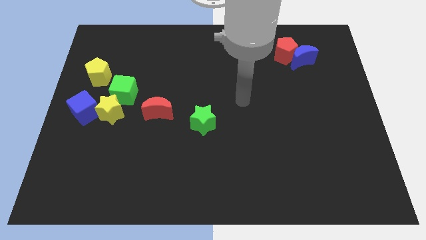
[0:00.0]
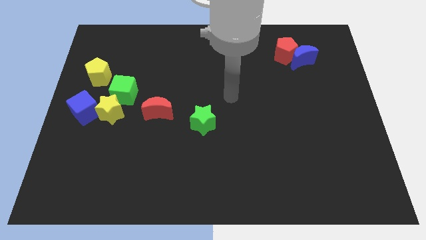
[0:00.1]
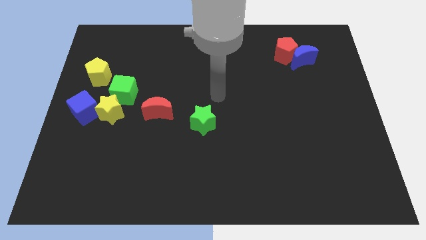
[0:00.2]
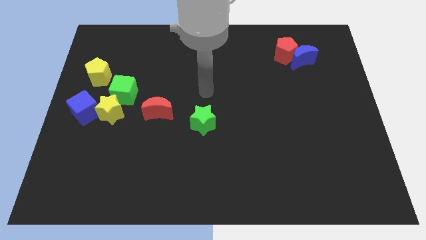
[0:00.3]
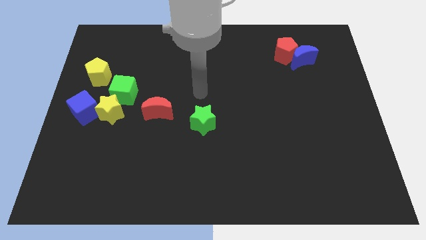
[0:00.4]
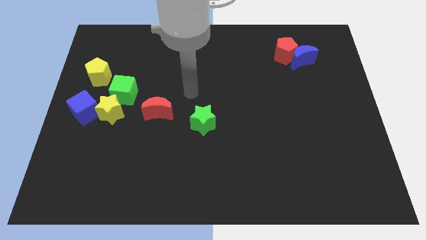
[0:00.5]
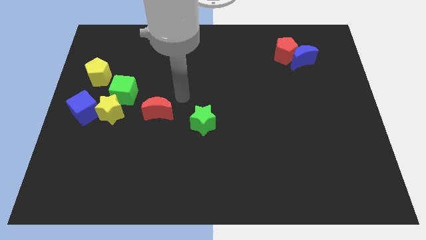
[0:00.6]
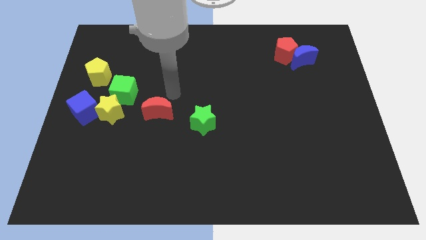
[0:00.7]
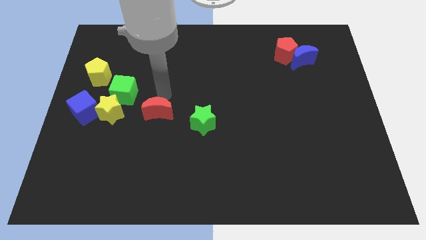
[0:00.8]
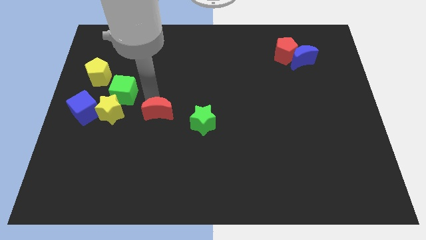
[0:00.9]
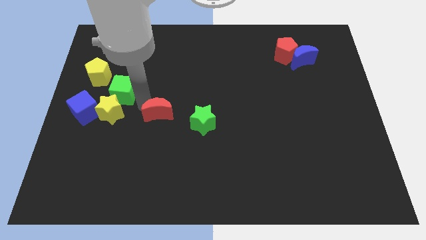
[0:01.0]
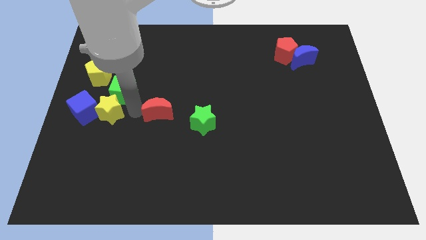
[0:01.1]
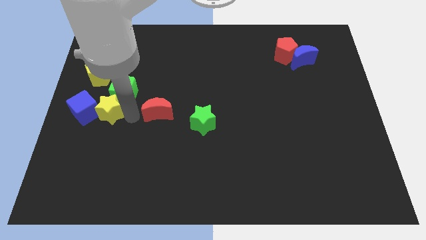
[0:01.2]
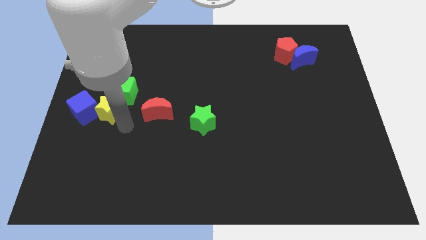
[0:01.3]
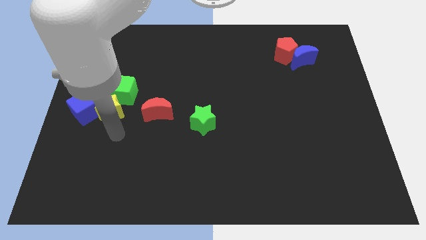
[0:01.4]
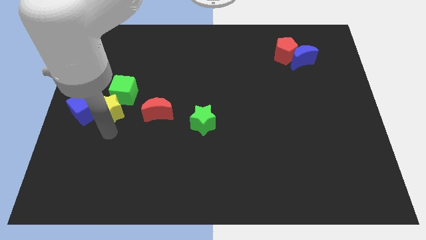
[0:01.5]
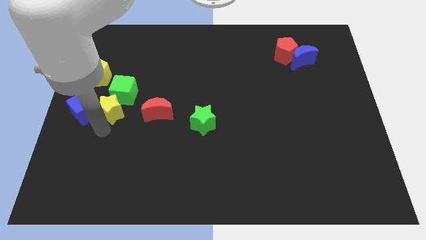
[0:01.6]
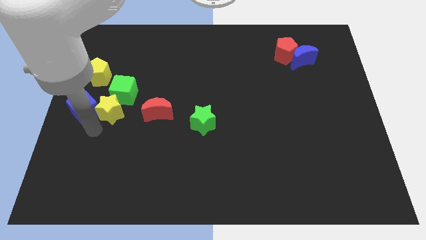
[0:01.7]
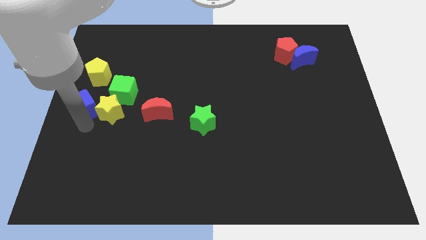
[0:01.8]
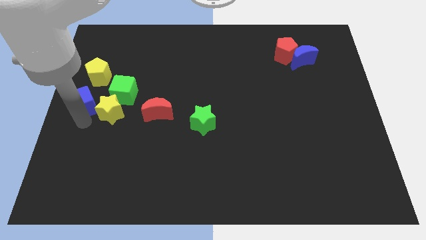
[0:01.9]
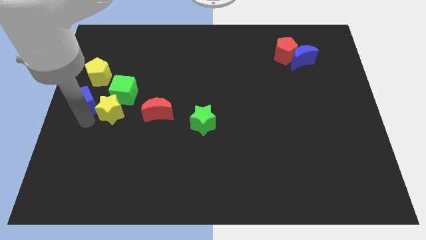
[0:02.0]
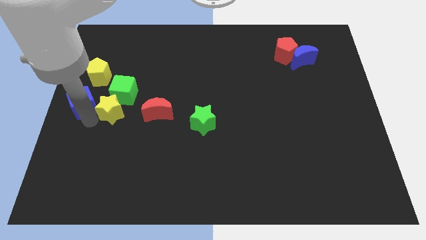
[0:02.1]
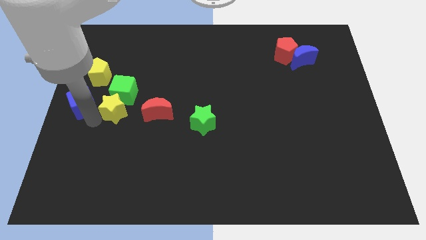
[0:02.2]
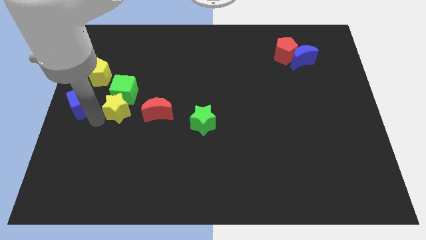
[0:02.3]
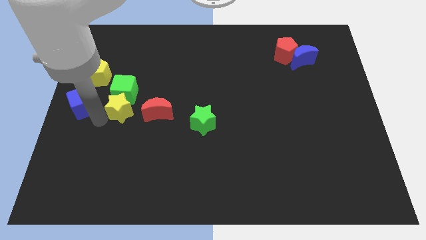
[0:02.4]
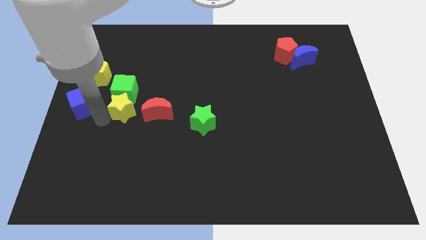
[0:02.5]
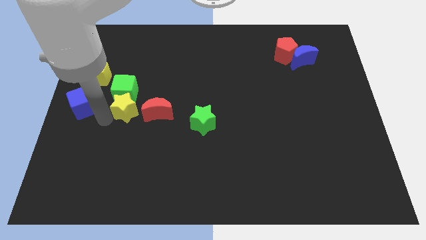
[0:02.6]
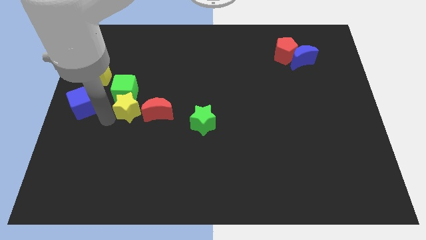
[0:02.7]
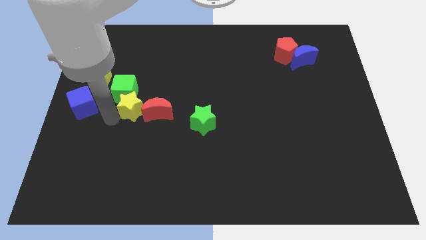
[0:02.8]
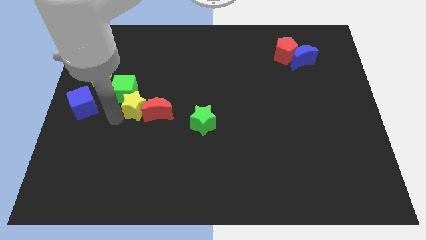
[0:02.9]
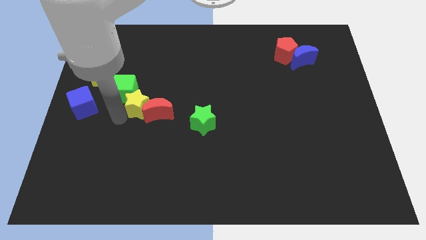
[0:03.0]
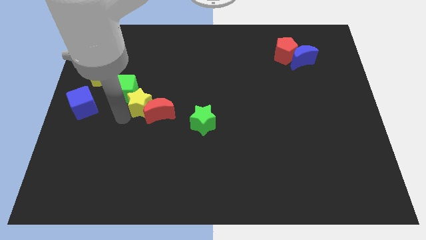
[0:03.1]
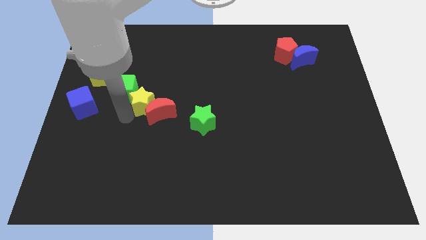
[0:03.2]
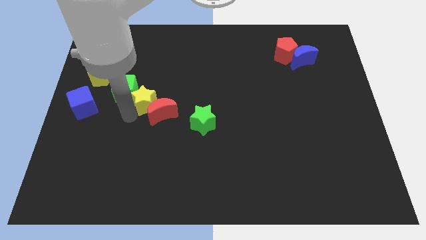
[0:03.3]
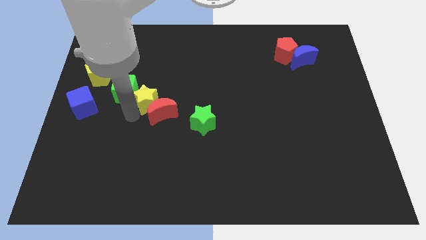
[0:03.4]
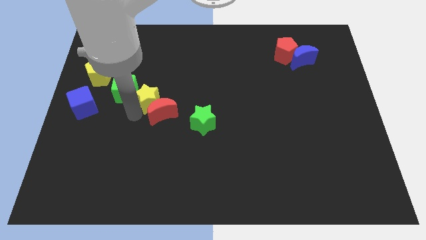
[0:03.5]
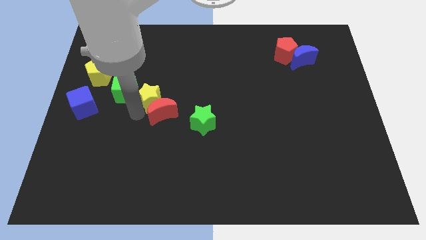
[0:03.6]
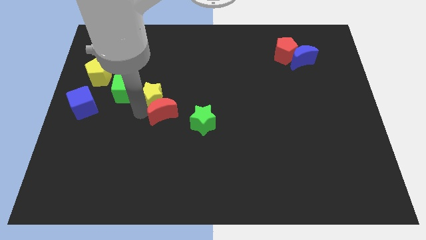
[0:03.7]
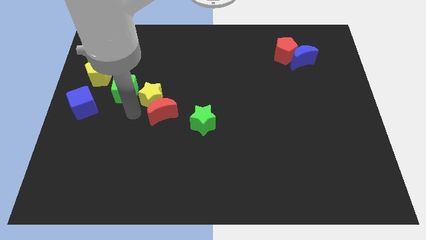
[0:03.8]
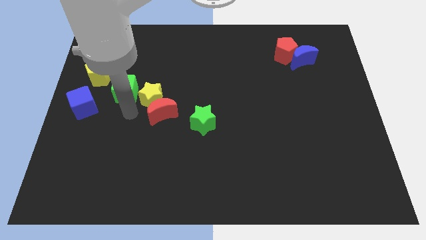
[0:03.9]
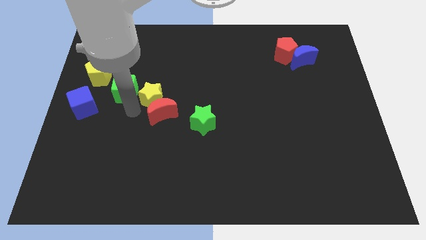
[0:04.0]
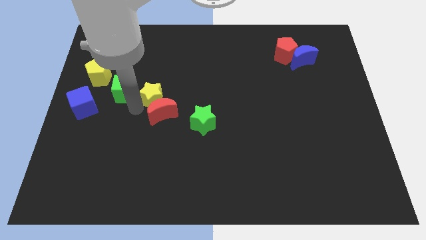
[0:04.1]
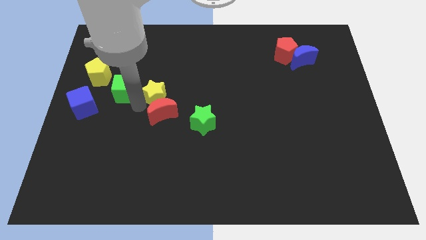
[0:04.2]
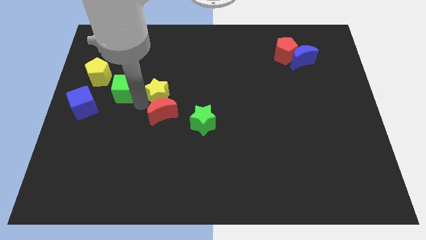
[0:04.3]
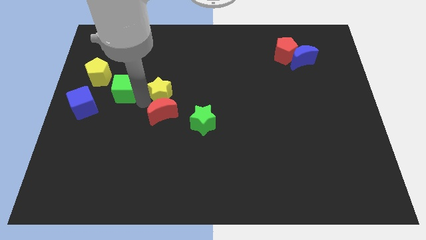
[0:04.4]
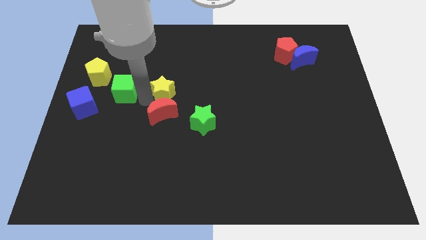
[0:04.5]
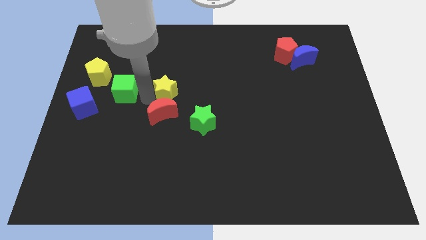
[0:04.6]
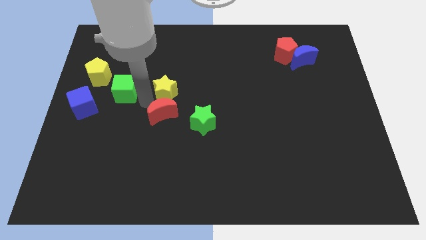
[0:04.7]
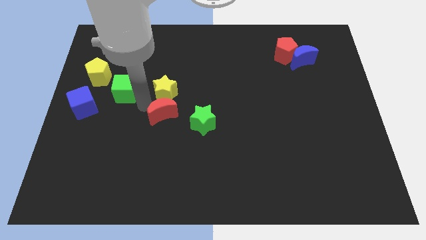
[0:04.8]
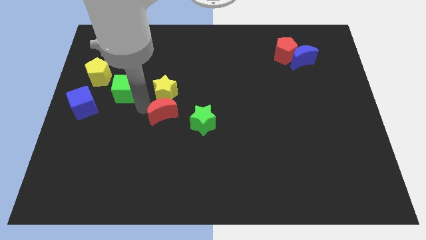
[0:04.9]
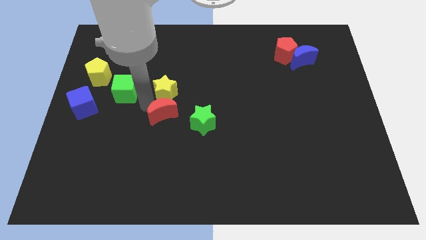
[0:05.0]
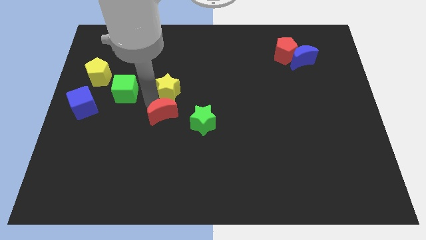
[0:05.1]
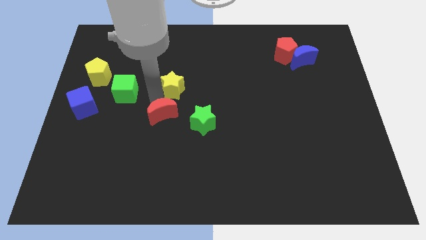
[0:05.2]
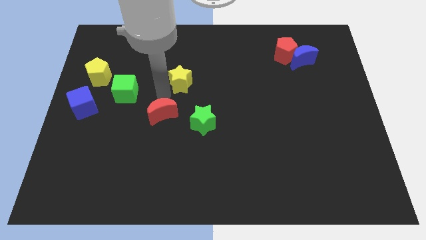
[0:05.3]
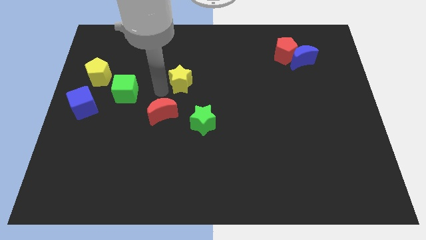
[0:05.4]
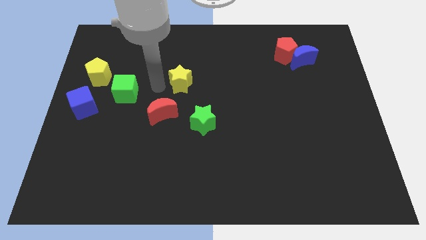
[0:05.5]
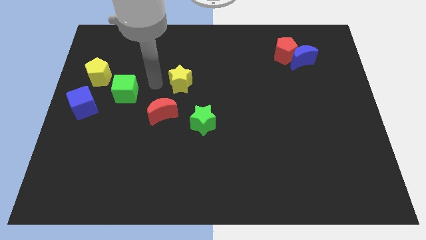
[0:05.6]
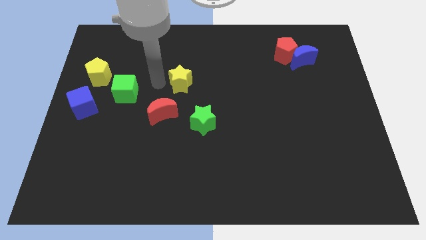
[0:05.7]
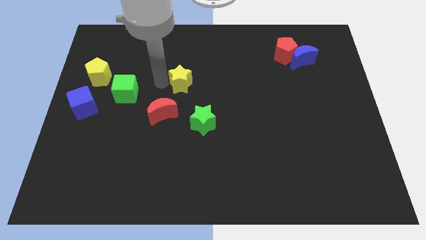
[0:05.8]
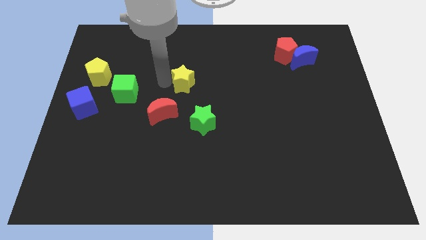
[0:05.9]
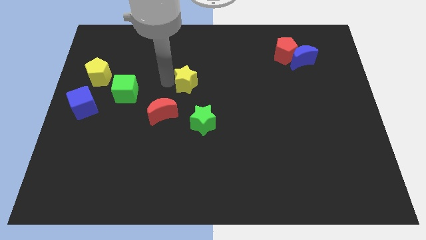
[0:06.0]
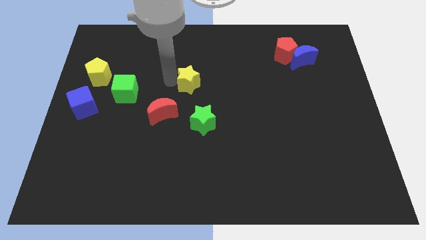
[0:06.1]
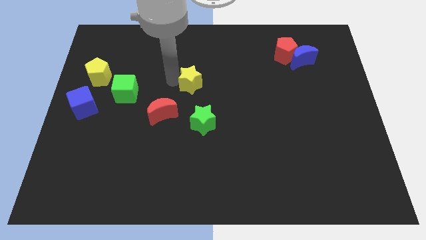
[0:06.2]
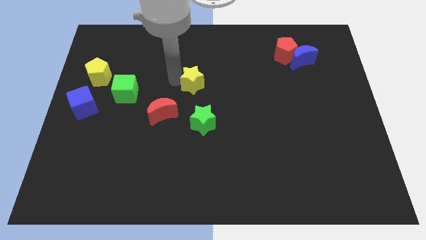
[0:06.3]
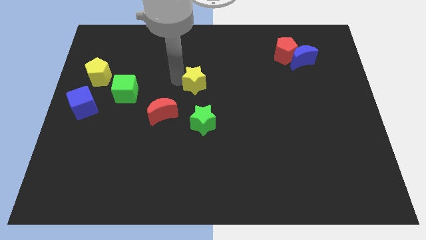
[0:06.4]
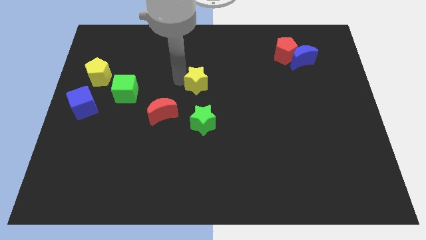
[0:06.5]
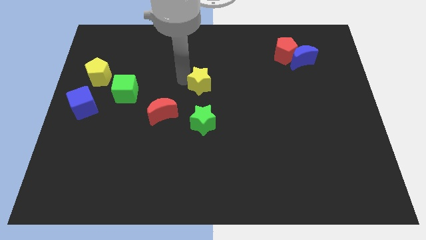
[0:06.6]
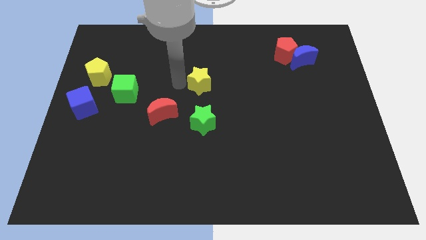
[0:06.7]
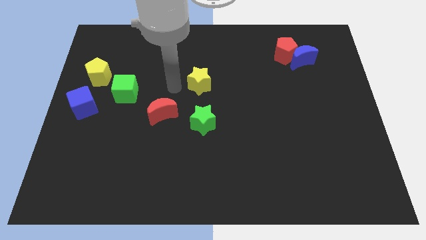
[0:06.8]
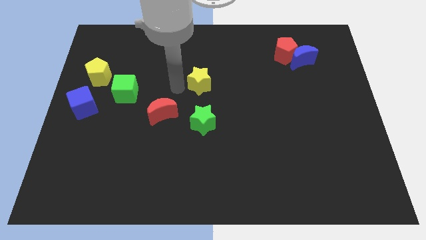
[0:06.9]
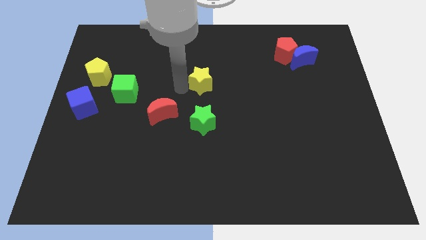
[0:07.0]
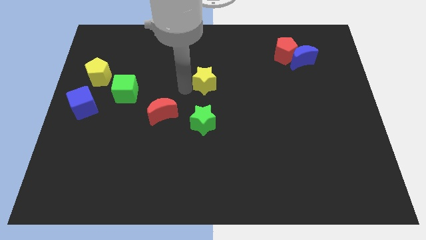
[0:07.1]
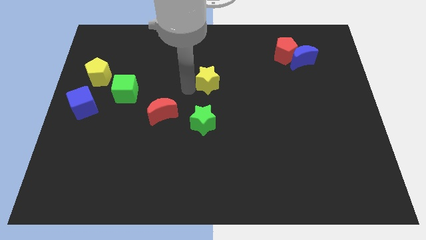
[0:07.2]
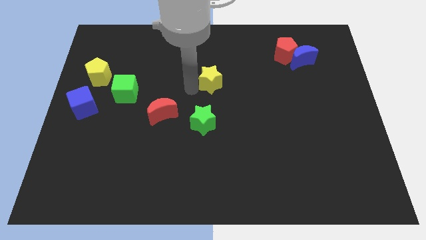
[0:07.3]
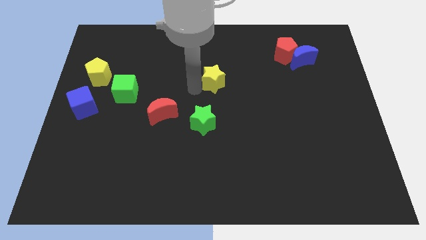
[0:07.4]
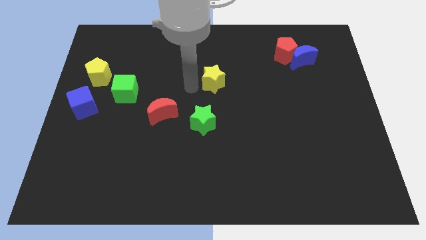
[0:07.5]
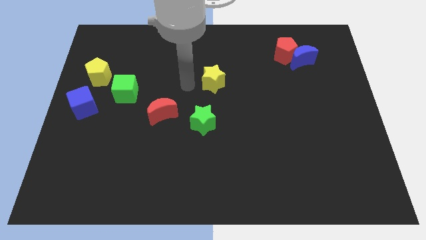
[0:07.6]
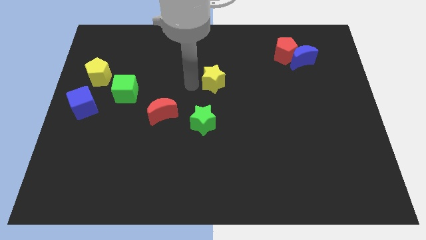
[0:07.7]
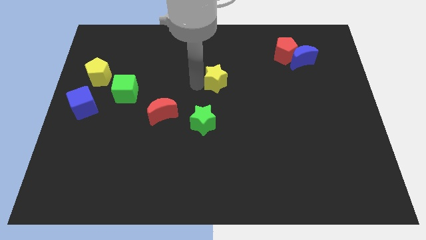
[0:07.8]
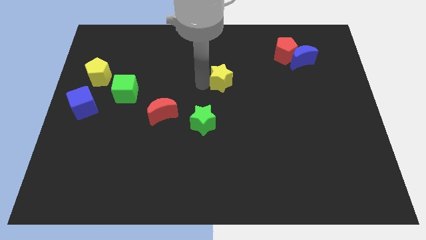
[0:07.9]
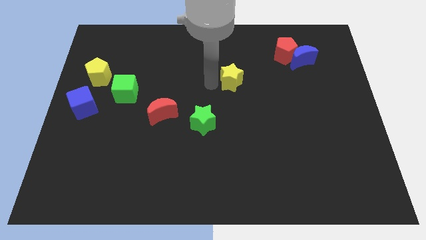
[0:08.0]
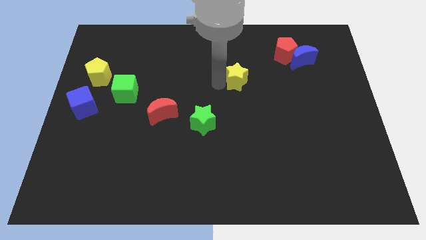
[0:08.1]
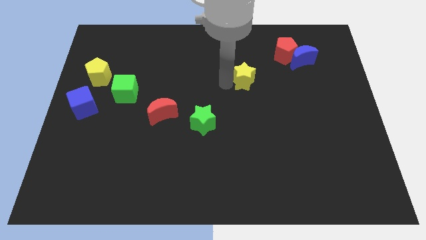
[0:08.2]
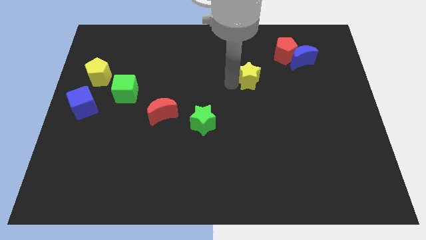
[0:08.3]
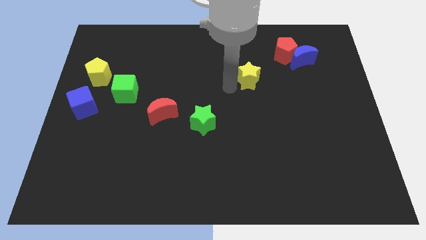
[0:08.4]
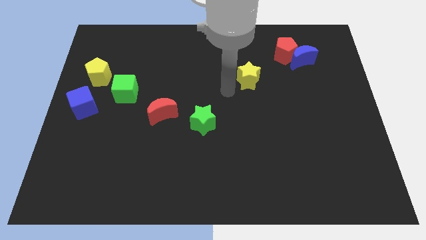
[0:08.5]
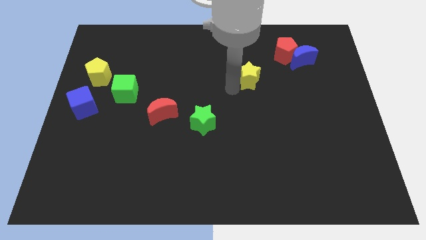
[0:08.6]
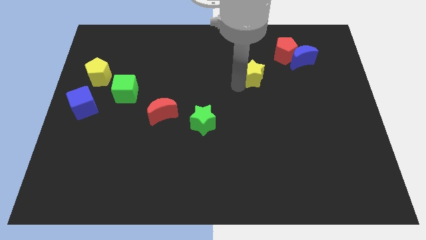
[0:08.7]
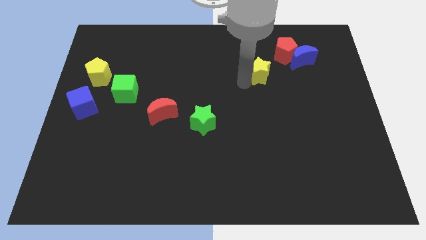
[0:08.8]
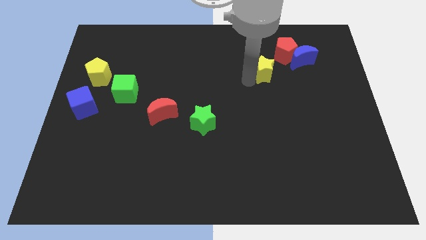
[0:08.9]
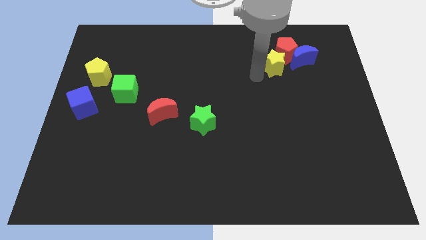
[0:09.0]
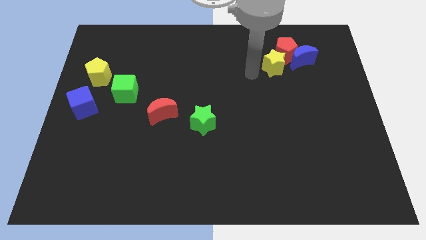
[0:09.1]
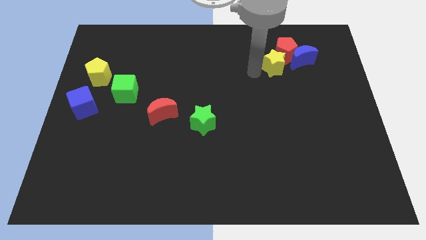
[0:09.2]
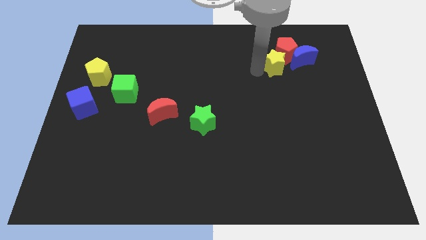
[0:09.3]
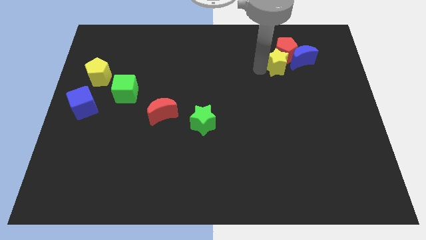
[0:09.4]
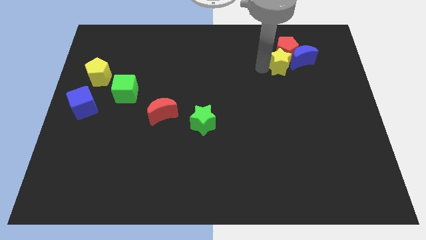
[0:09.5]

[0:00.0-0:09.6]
move the yellow star towards the blue moon
